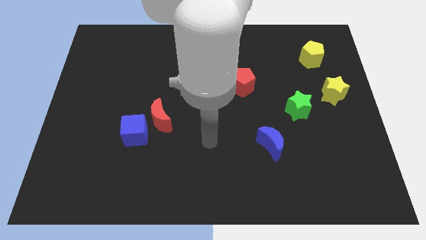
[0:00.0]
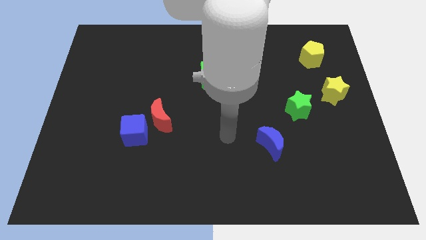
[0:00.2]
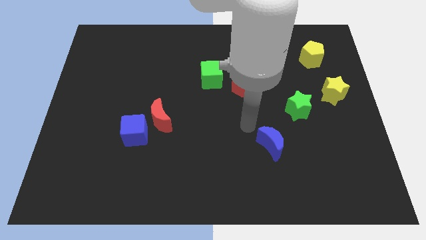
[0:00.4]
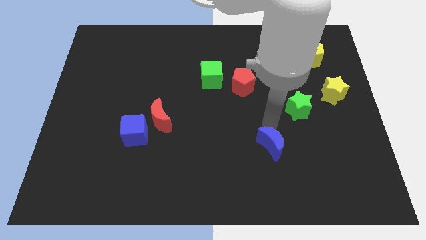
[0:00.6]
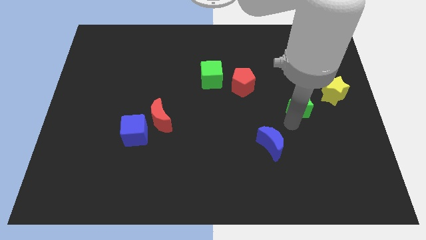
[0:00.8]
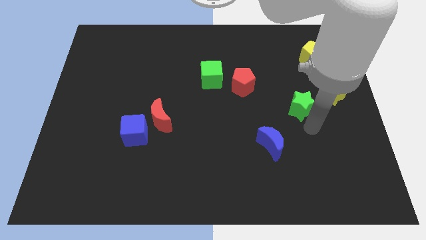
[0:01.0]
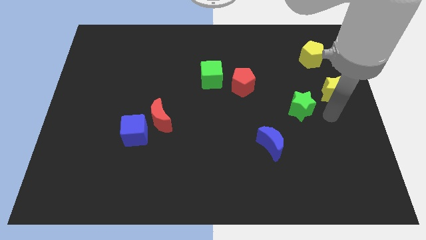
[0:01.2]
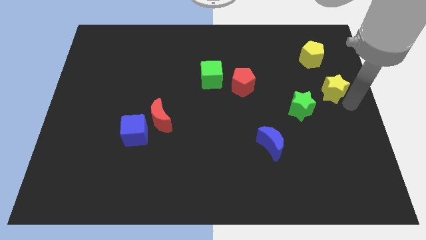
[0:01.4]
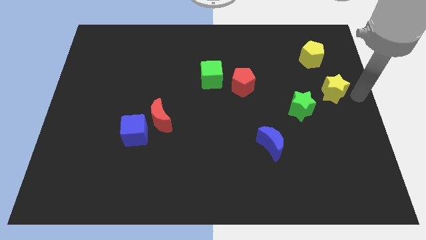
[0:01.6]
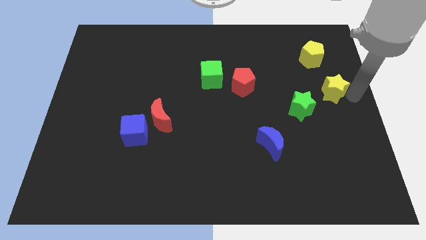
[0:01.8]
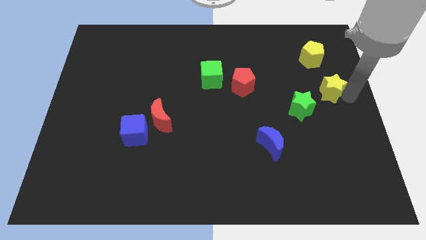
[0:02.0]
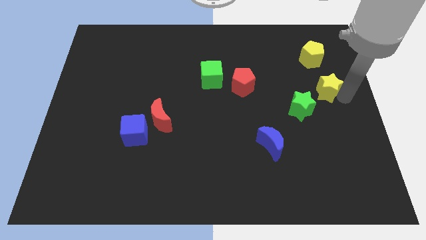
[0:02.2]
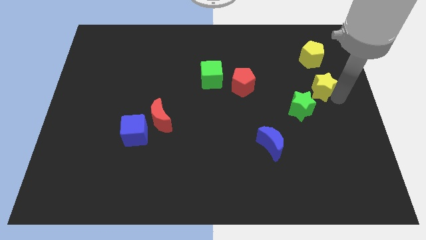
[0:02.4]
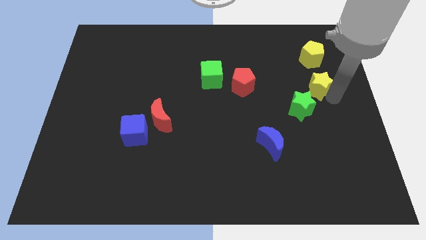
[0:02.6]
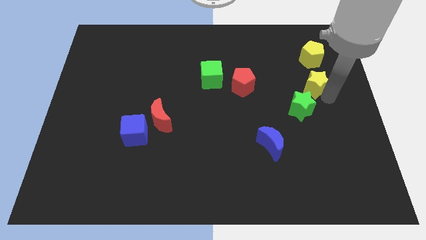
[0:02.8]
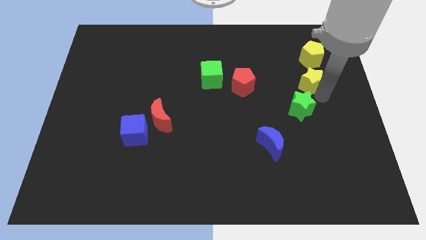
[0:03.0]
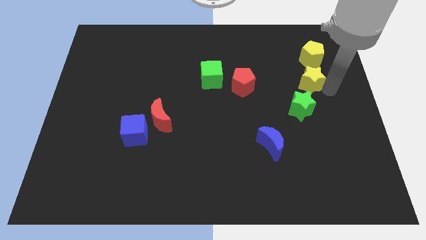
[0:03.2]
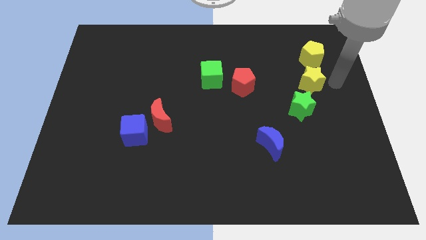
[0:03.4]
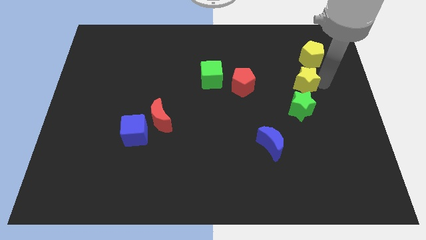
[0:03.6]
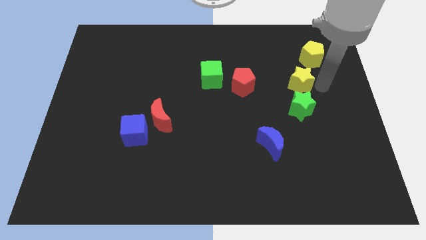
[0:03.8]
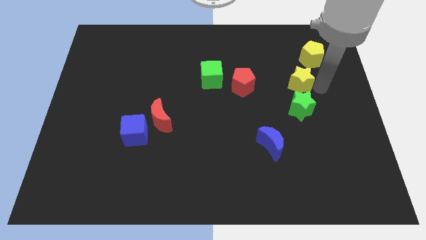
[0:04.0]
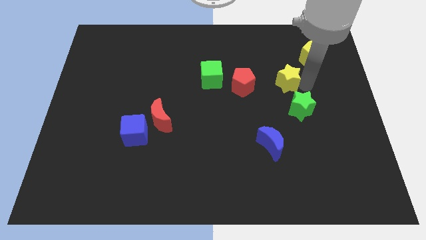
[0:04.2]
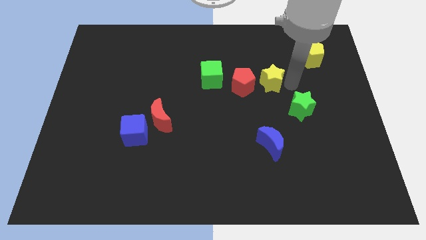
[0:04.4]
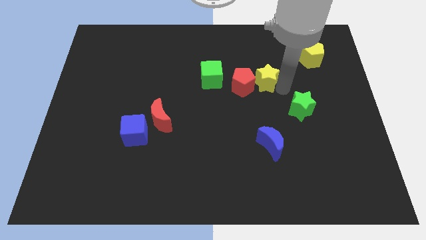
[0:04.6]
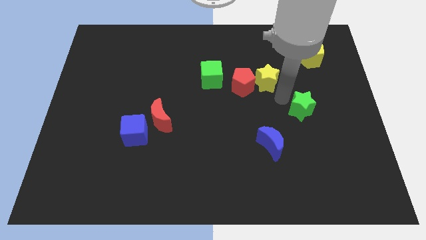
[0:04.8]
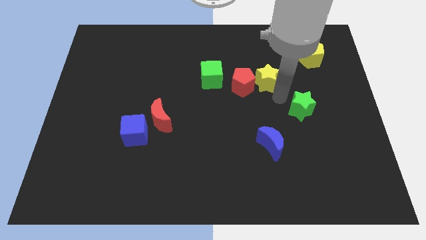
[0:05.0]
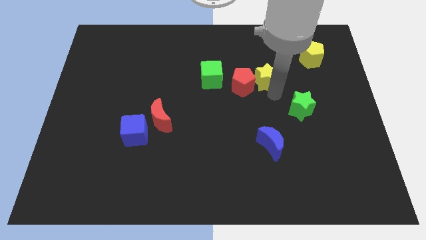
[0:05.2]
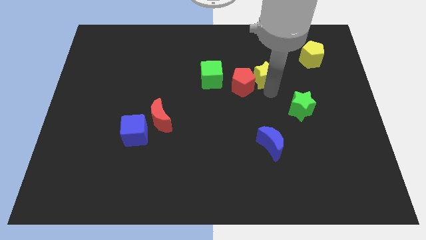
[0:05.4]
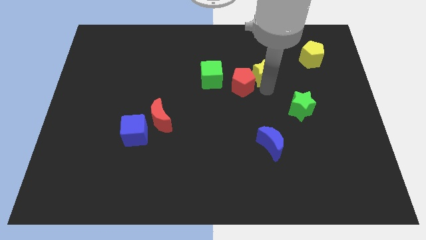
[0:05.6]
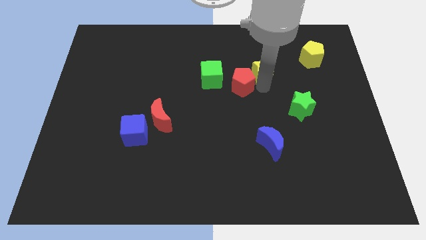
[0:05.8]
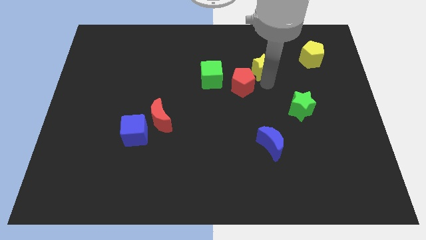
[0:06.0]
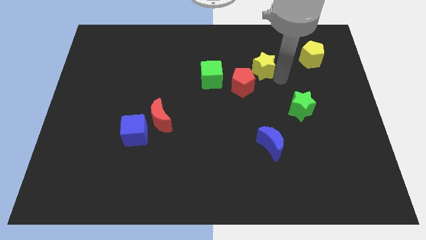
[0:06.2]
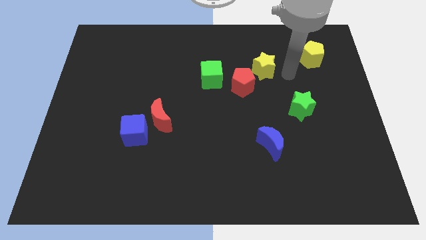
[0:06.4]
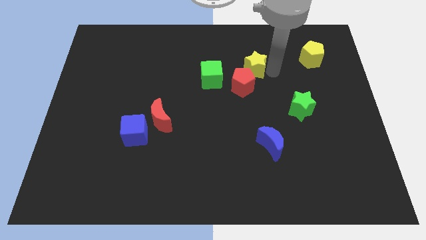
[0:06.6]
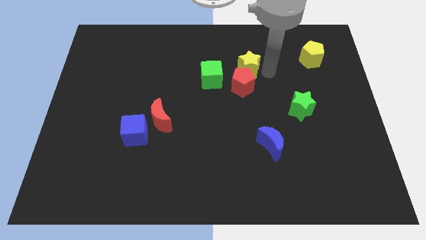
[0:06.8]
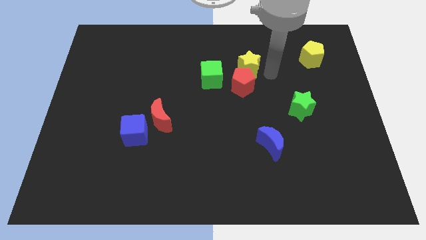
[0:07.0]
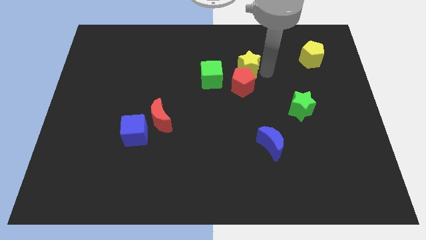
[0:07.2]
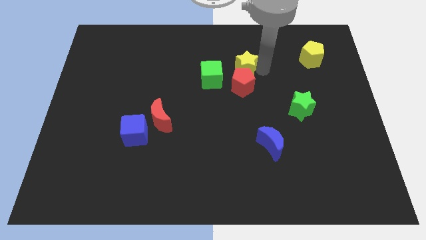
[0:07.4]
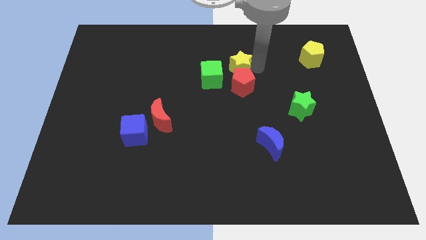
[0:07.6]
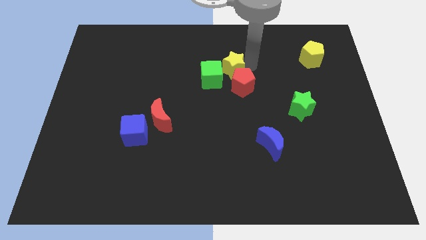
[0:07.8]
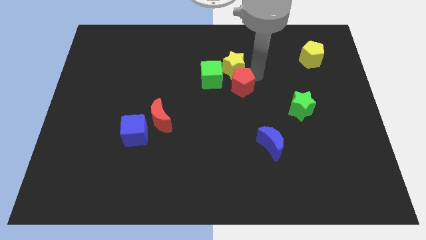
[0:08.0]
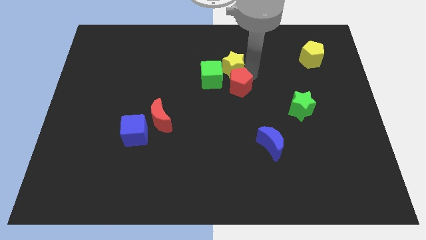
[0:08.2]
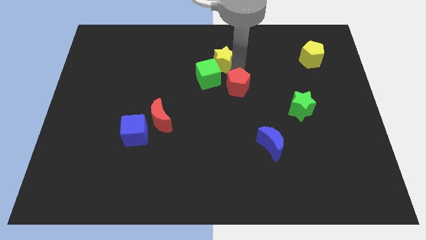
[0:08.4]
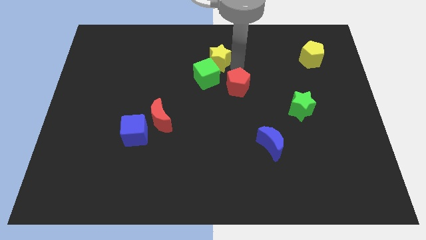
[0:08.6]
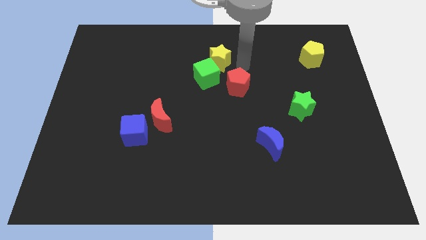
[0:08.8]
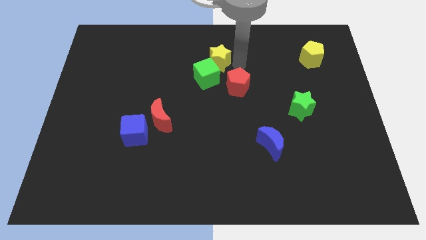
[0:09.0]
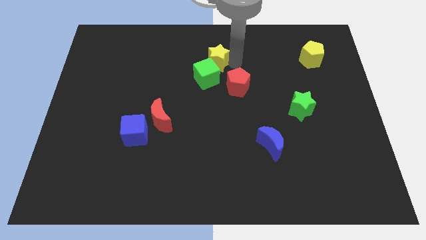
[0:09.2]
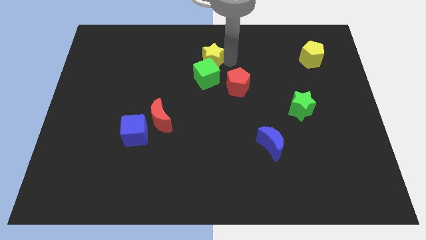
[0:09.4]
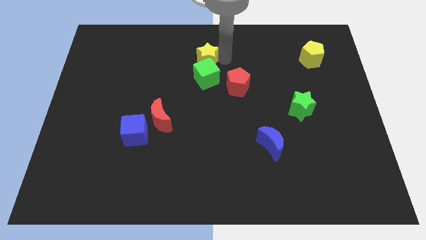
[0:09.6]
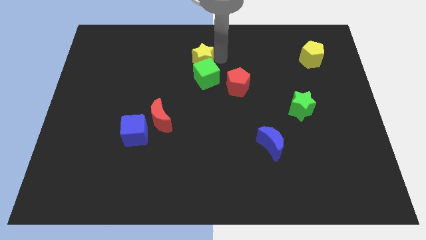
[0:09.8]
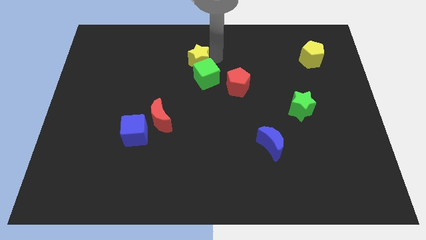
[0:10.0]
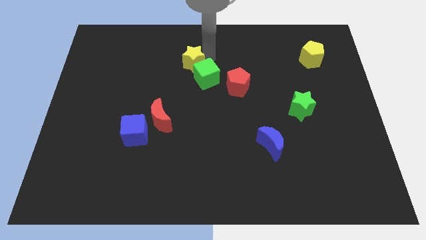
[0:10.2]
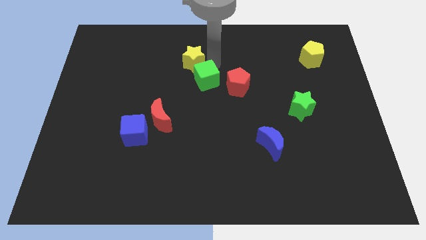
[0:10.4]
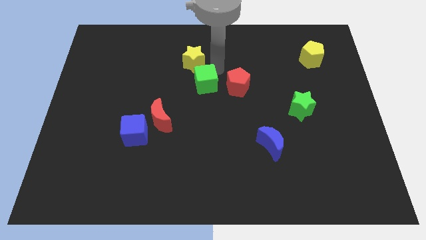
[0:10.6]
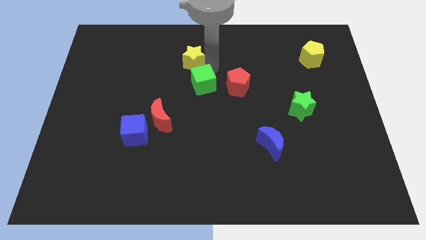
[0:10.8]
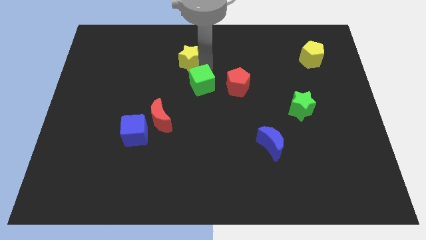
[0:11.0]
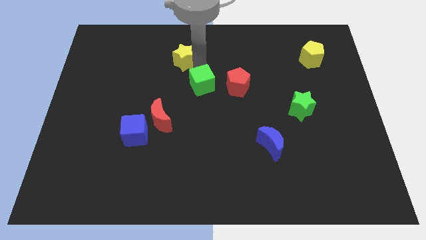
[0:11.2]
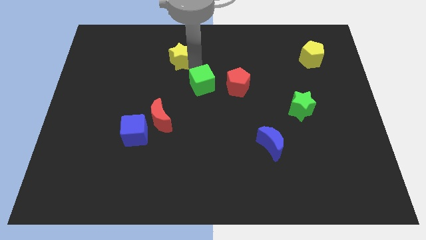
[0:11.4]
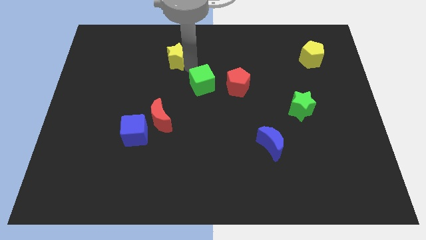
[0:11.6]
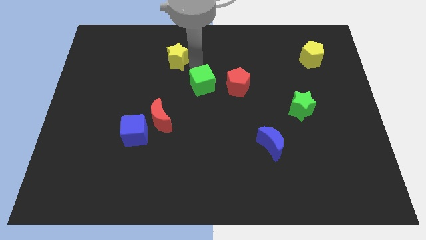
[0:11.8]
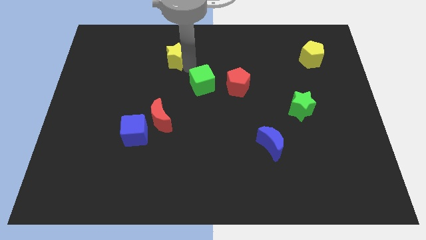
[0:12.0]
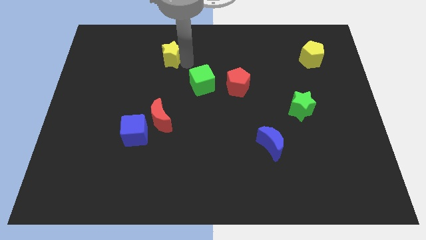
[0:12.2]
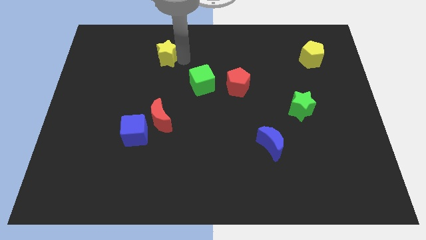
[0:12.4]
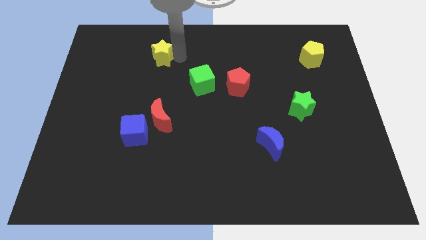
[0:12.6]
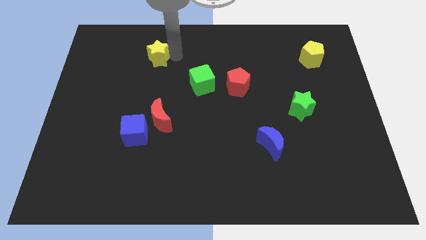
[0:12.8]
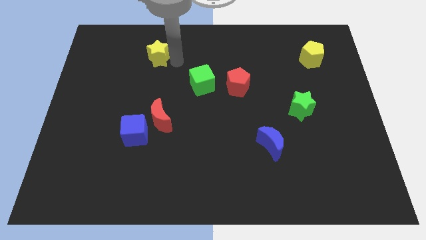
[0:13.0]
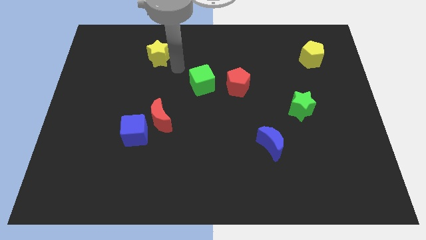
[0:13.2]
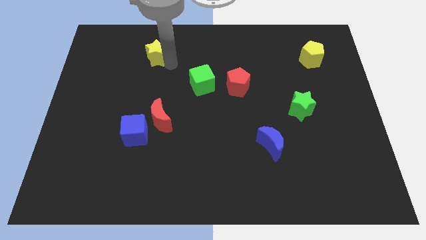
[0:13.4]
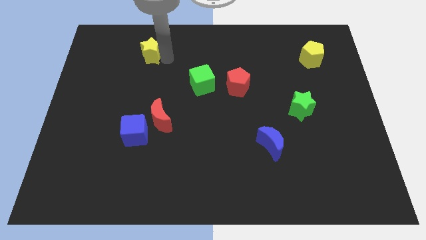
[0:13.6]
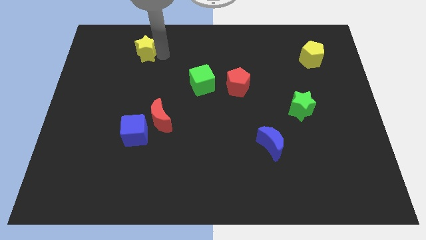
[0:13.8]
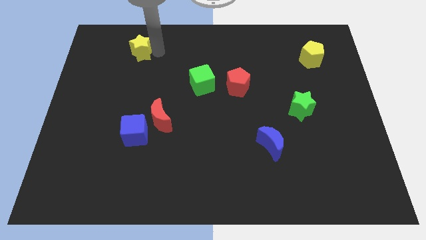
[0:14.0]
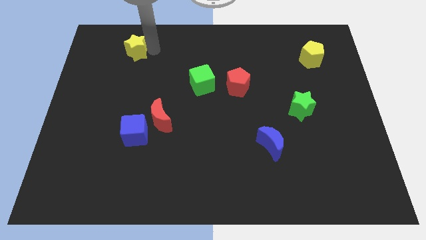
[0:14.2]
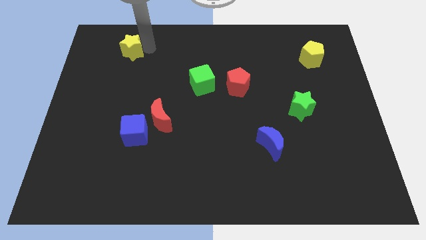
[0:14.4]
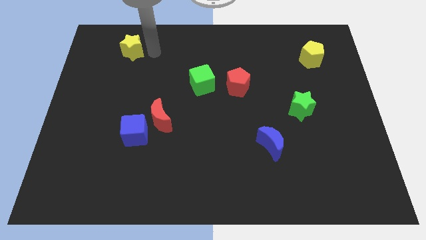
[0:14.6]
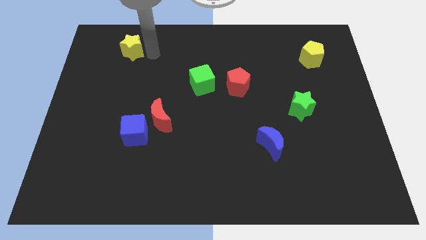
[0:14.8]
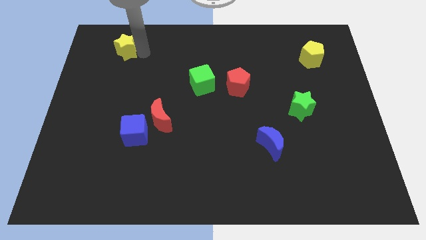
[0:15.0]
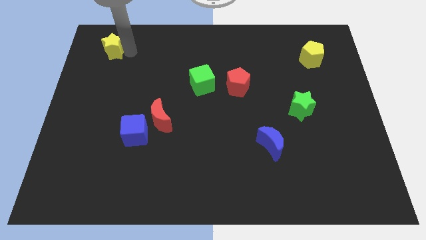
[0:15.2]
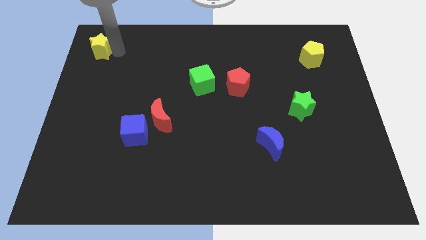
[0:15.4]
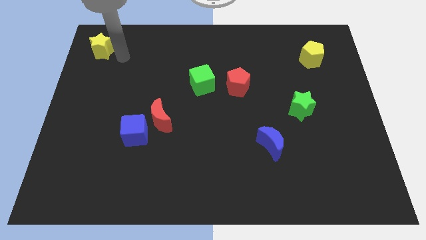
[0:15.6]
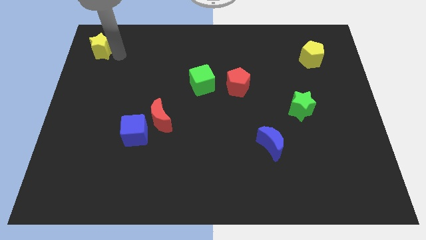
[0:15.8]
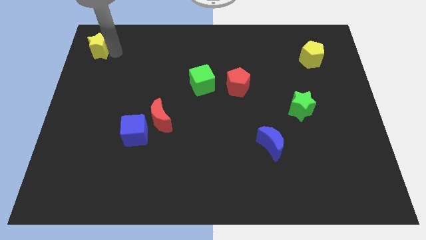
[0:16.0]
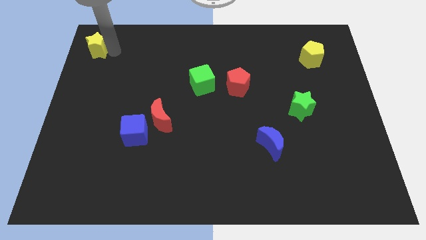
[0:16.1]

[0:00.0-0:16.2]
slide the yellow star to the upper left corner
